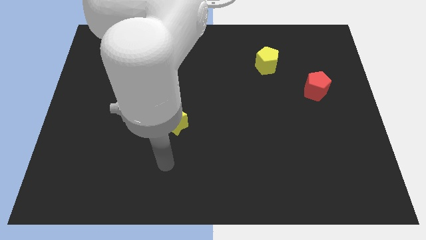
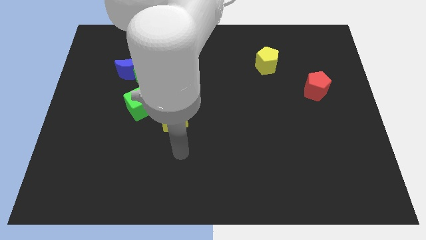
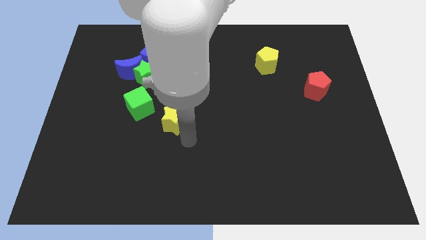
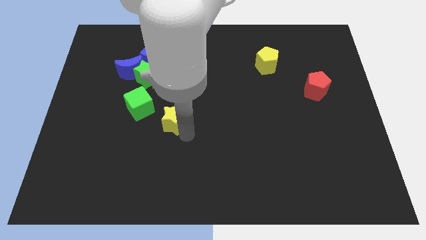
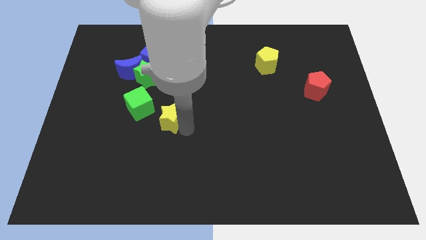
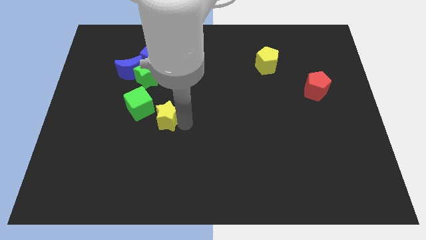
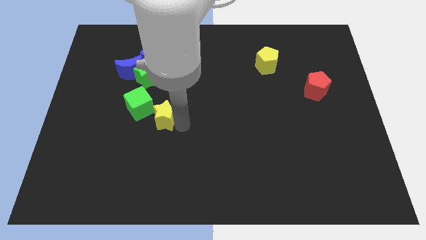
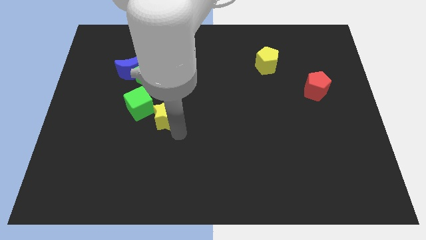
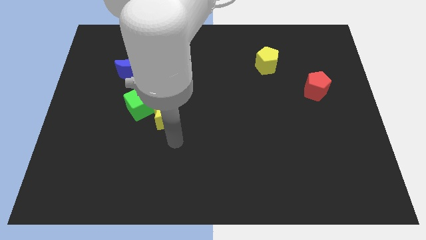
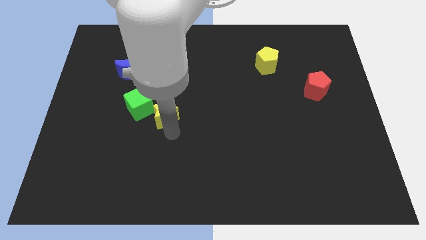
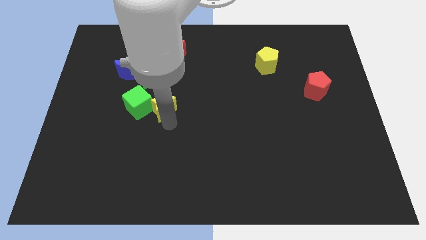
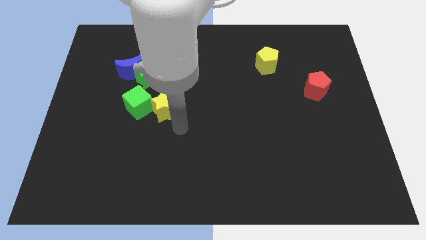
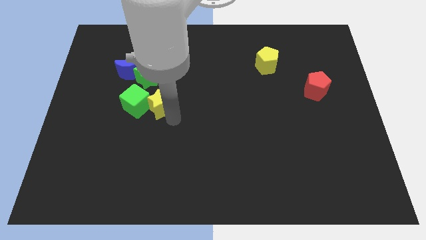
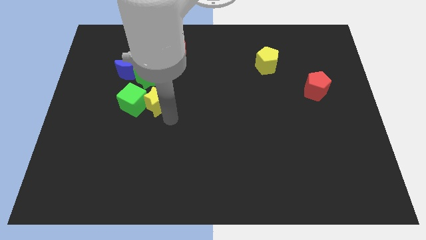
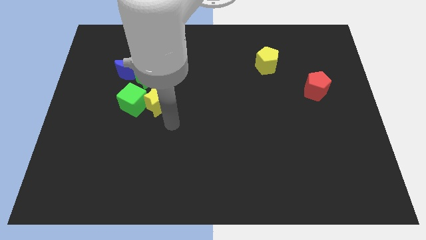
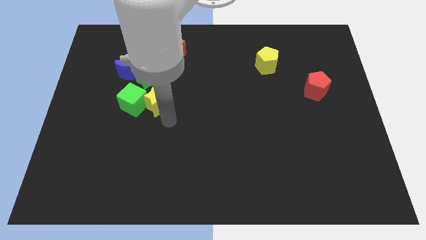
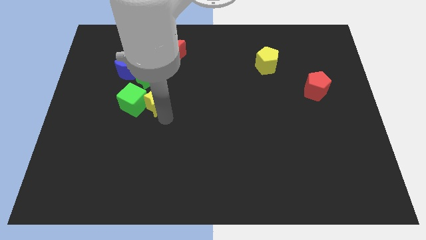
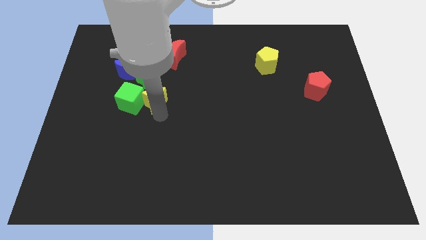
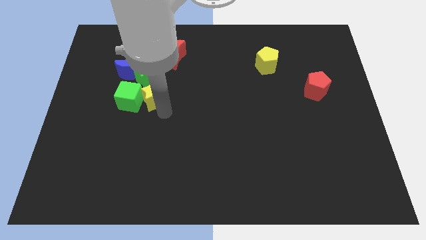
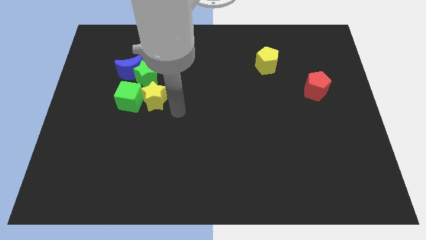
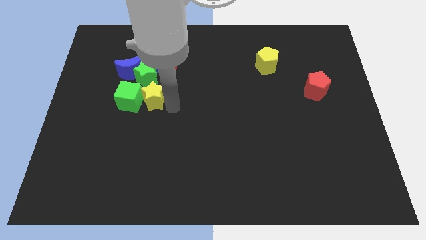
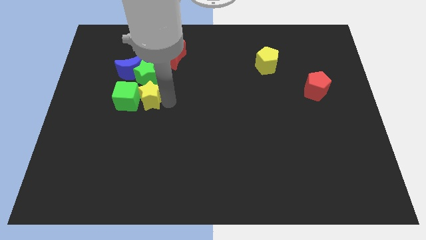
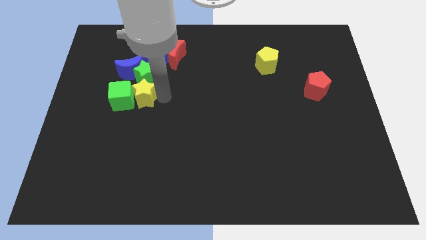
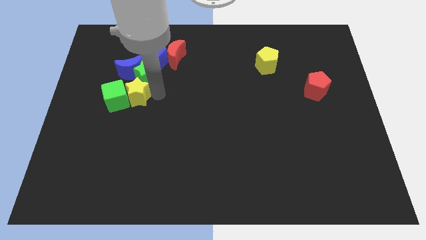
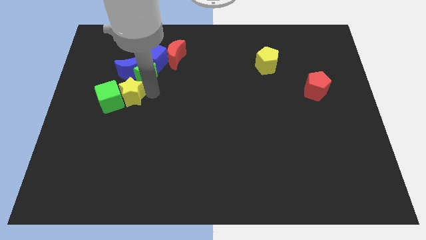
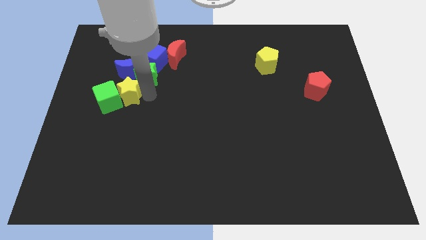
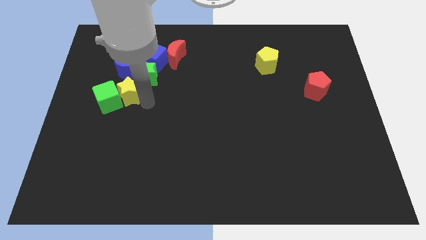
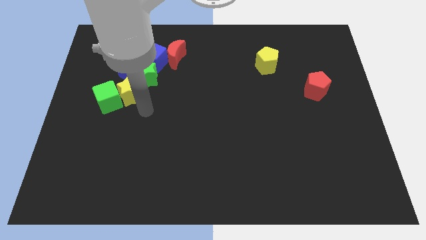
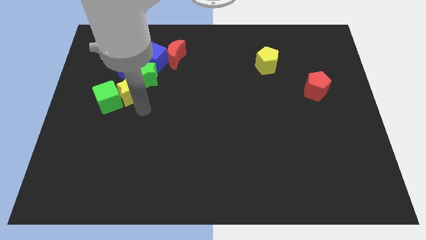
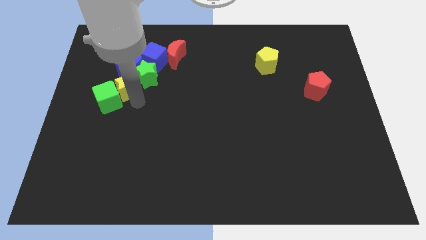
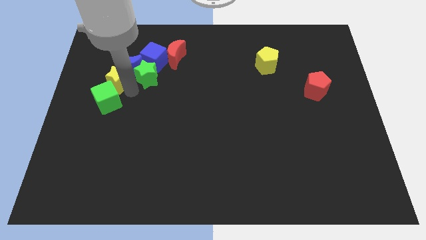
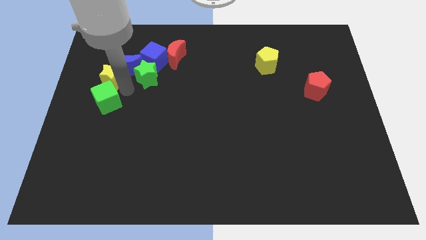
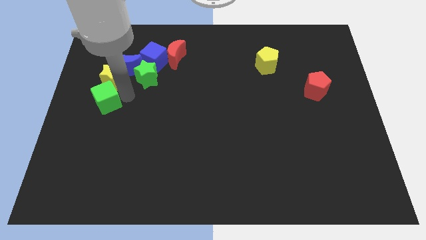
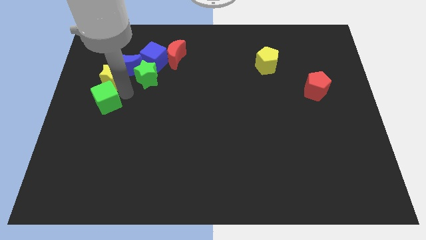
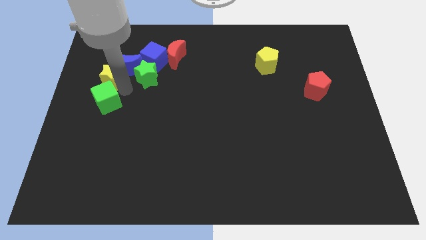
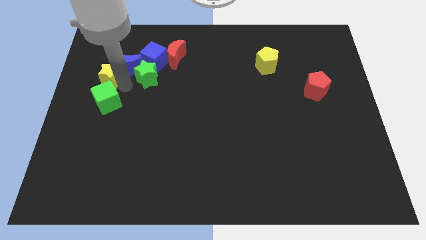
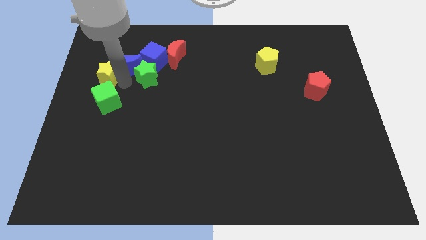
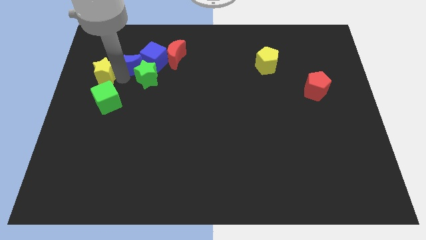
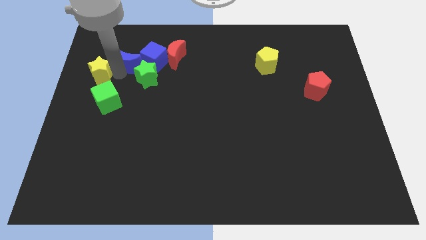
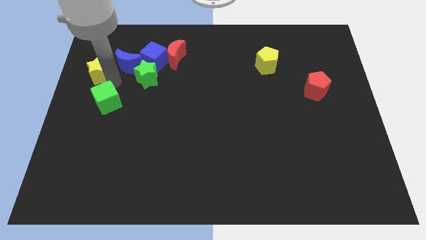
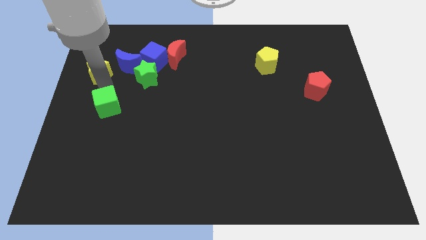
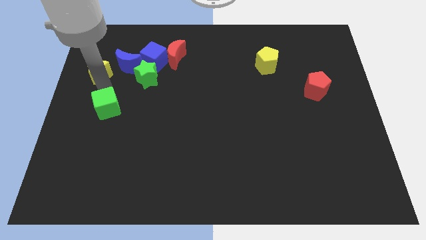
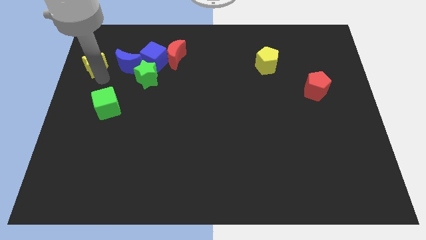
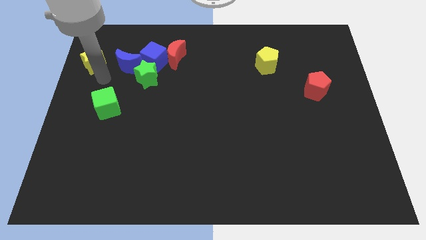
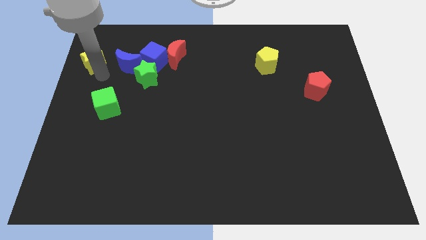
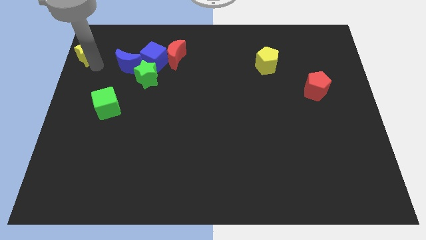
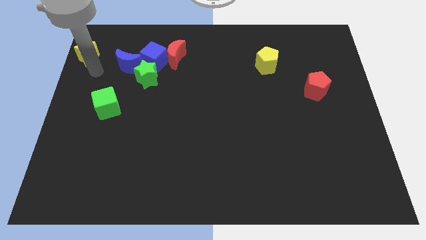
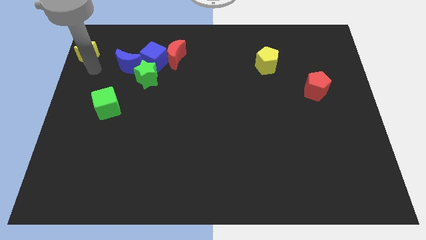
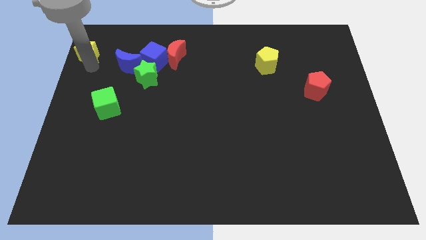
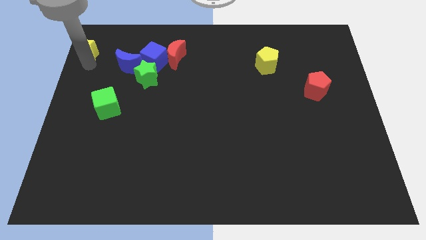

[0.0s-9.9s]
push the yellow star to the top left of the board

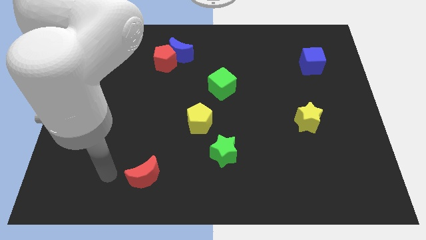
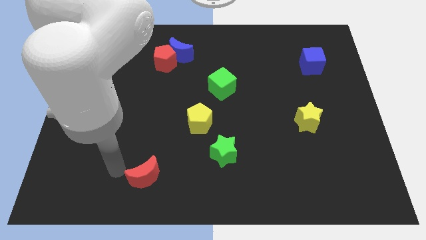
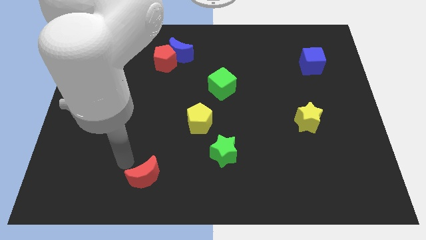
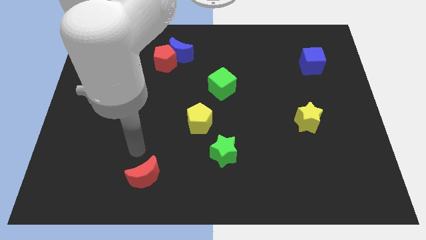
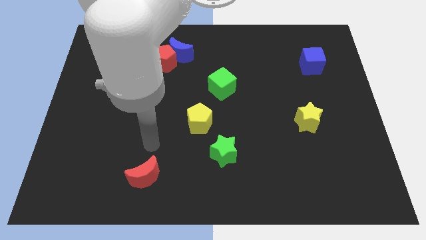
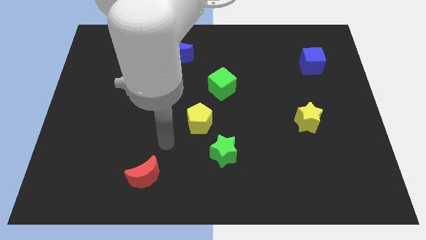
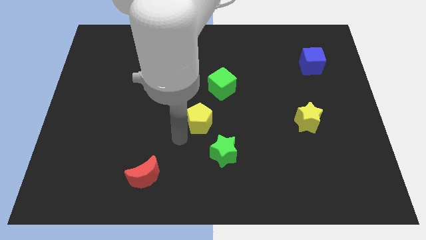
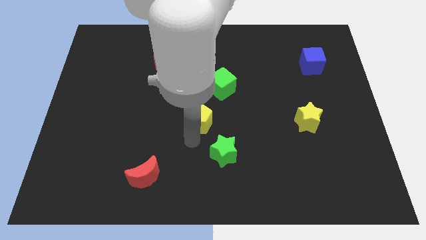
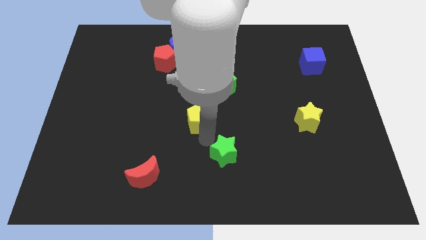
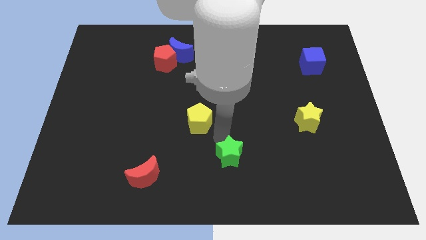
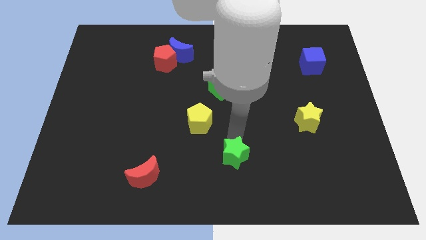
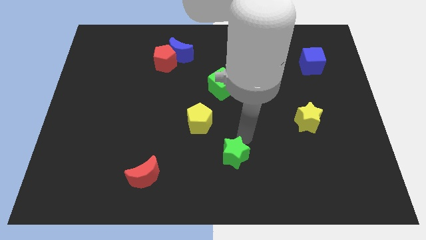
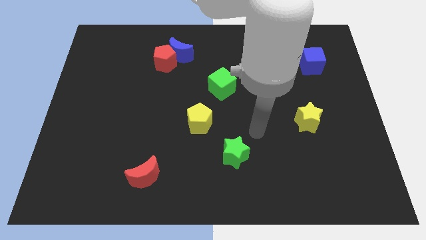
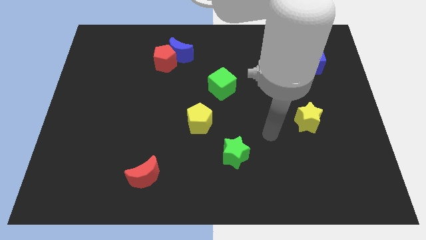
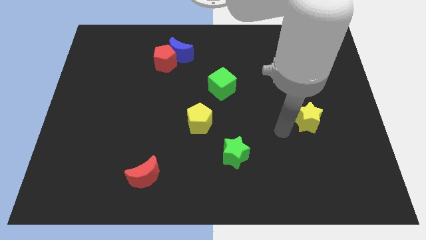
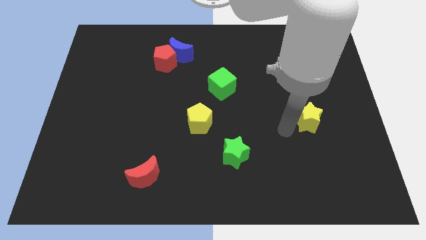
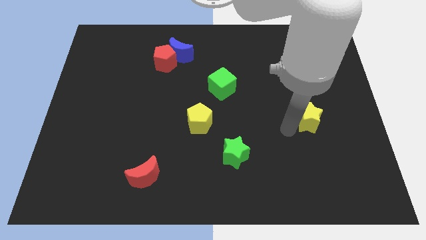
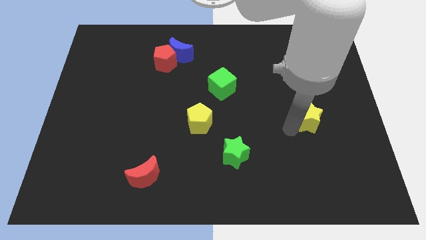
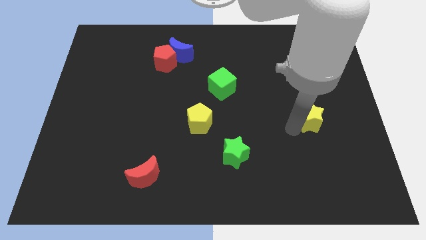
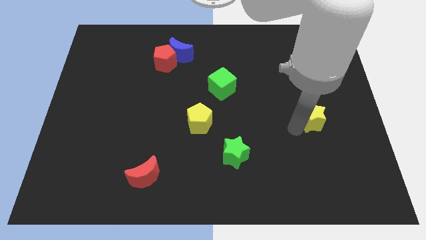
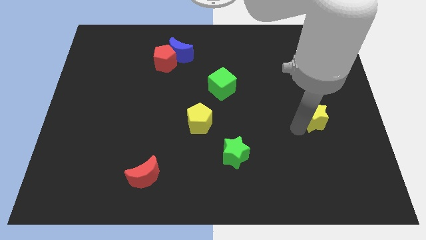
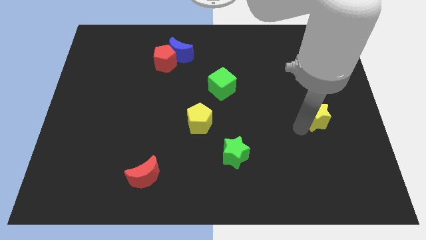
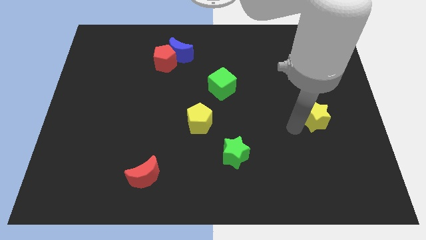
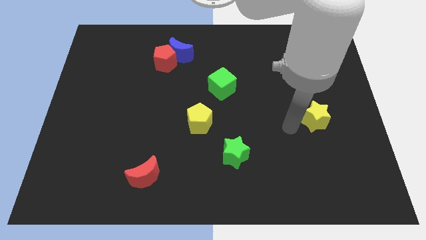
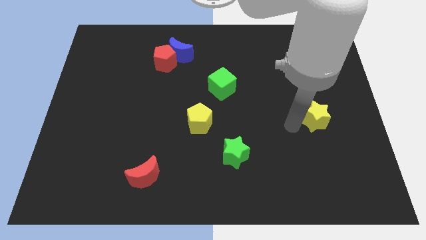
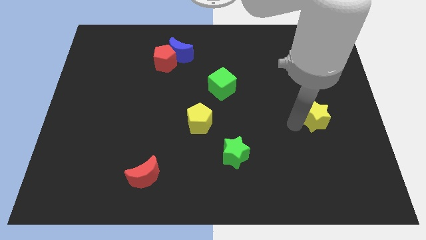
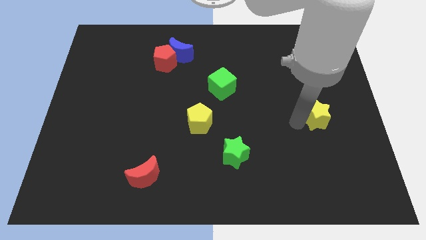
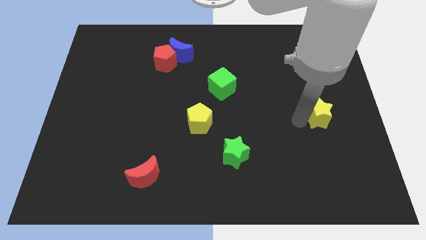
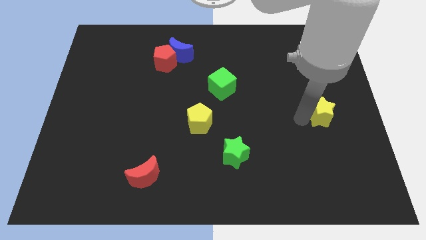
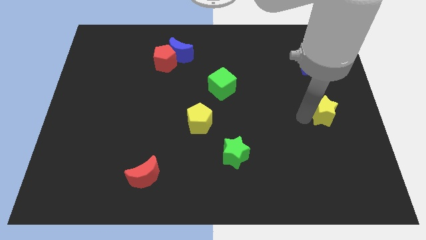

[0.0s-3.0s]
move the yellow star to the center right
